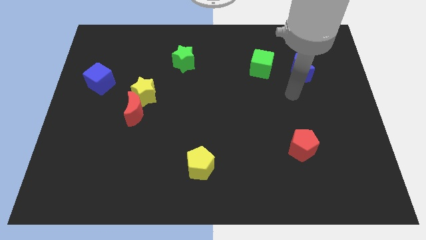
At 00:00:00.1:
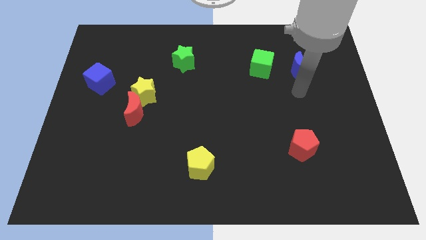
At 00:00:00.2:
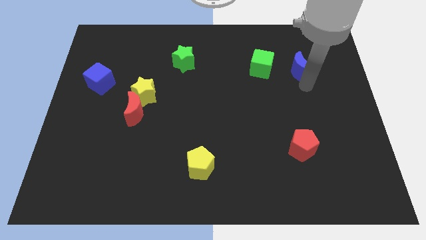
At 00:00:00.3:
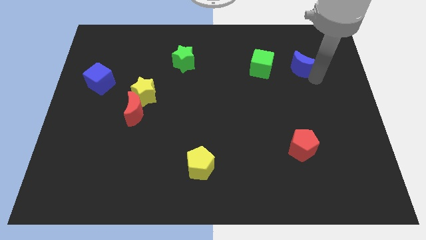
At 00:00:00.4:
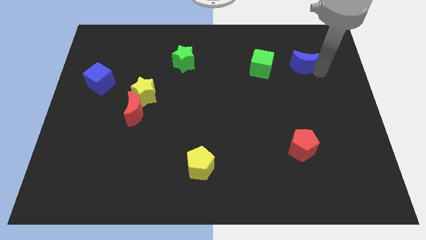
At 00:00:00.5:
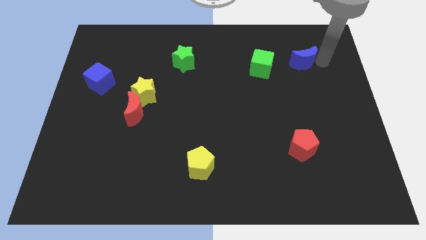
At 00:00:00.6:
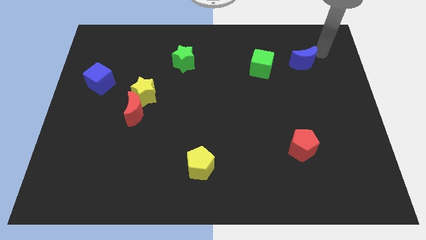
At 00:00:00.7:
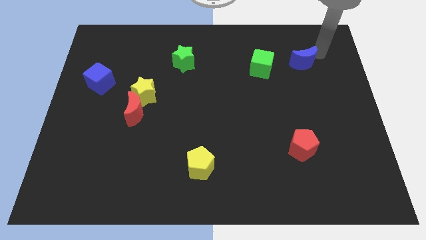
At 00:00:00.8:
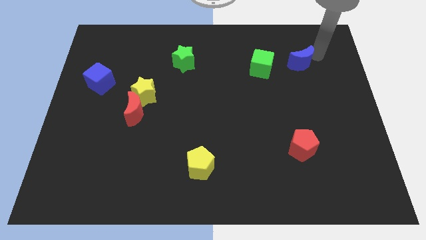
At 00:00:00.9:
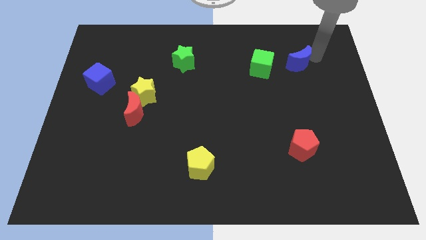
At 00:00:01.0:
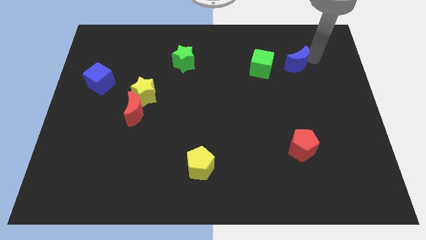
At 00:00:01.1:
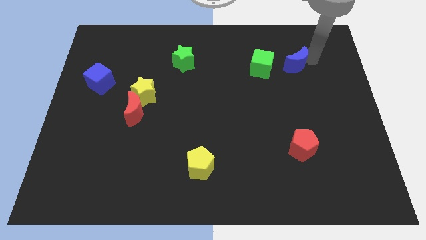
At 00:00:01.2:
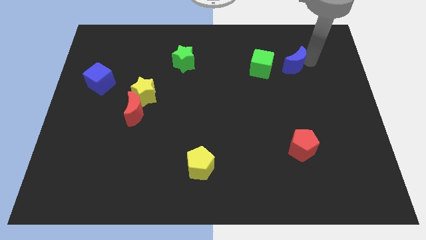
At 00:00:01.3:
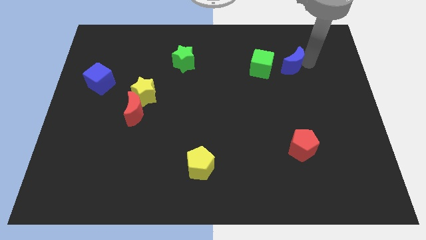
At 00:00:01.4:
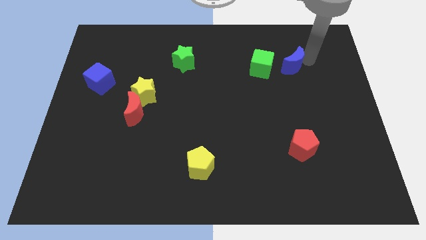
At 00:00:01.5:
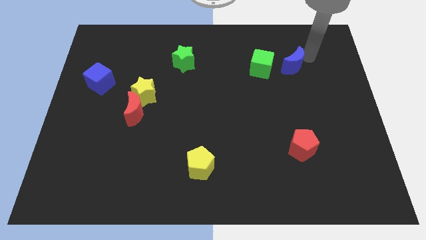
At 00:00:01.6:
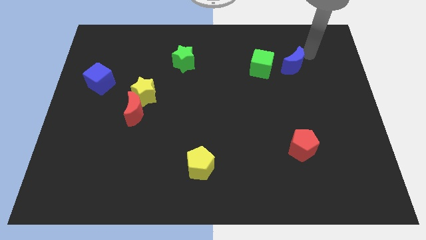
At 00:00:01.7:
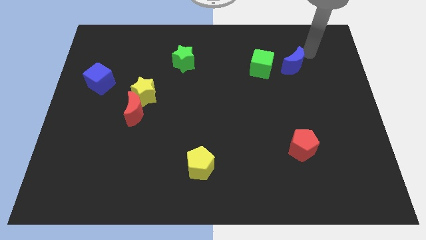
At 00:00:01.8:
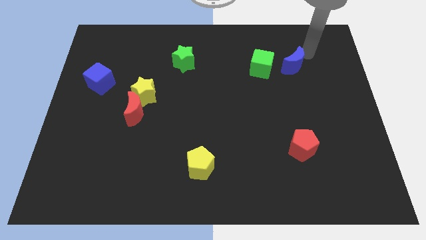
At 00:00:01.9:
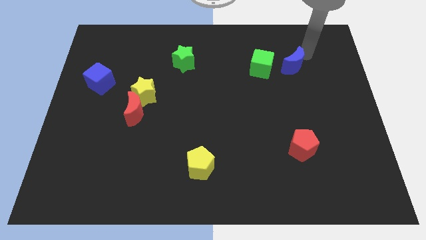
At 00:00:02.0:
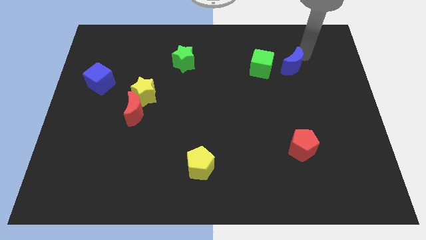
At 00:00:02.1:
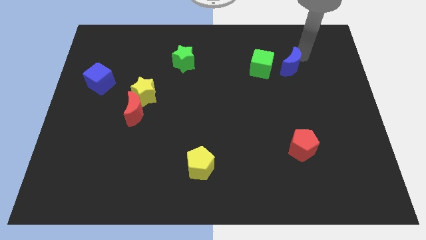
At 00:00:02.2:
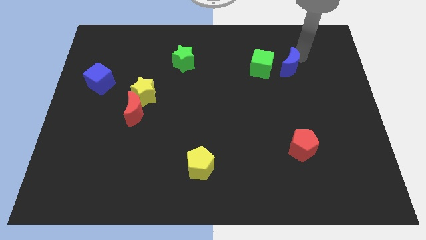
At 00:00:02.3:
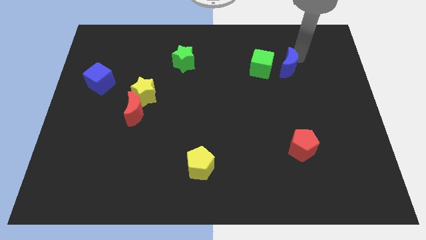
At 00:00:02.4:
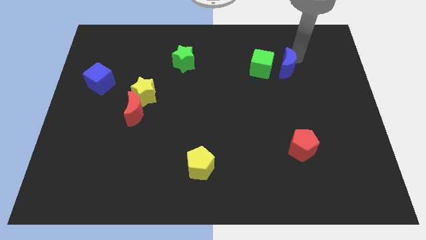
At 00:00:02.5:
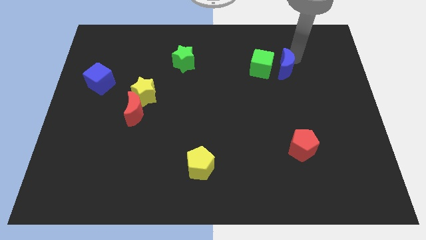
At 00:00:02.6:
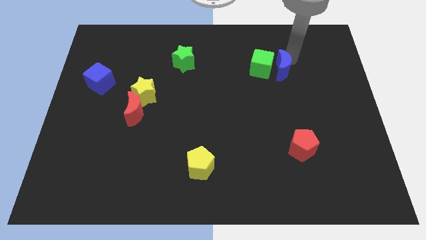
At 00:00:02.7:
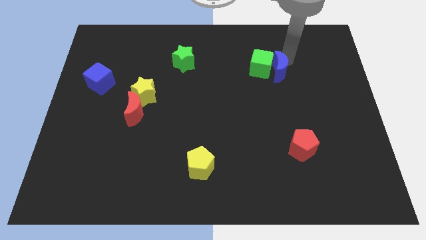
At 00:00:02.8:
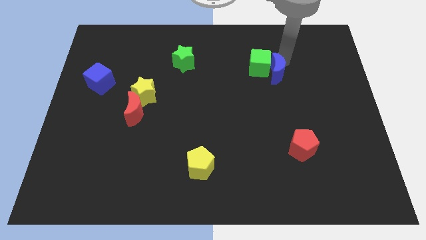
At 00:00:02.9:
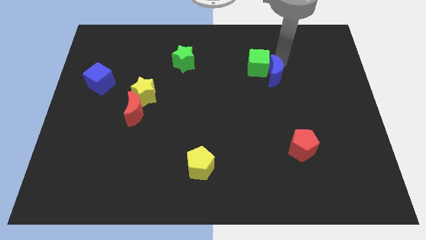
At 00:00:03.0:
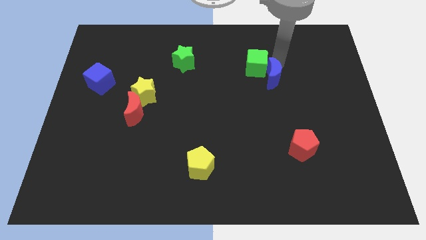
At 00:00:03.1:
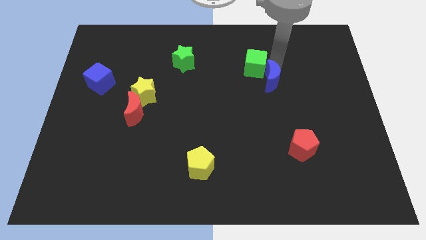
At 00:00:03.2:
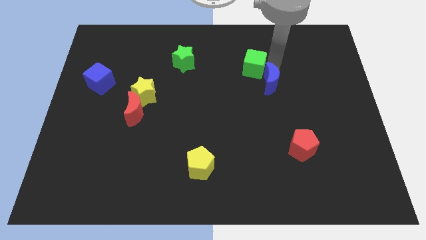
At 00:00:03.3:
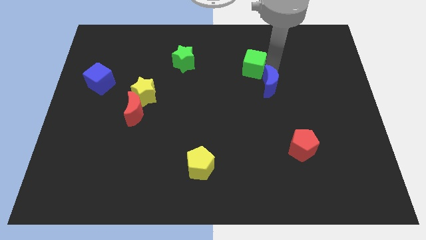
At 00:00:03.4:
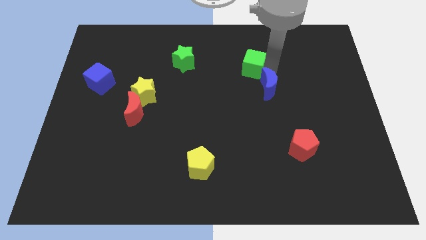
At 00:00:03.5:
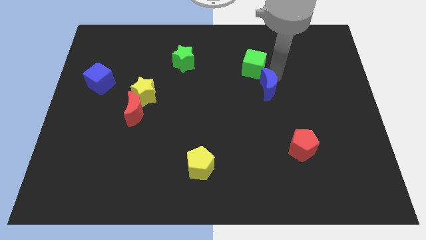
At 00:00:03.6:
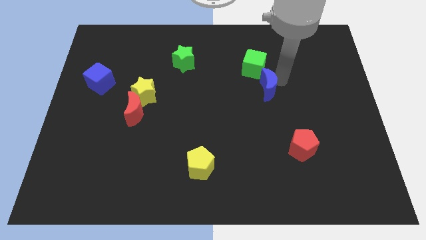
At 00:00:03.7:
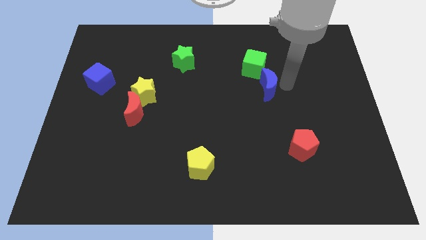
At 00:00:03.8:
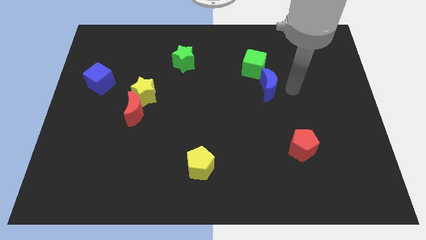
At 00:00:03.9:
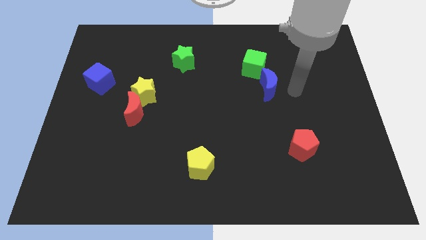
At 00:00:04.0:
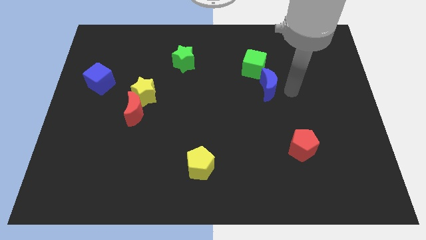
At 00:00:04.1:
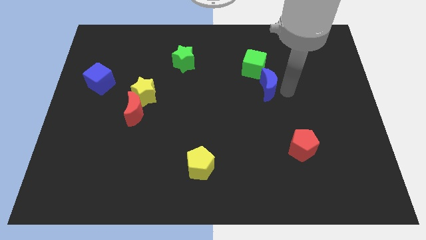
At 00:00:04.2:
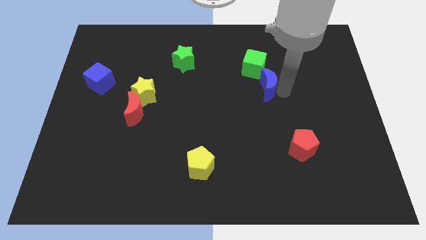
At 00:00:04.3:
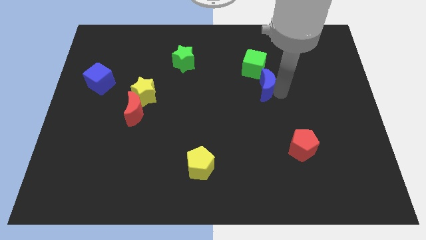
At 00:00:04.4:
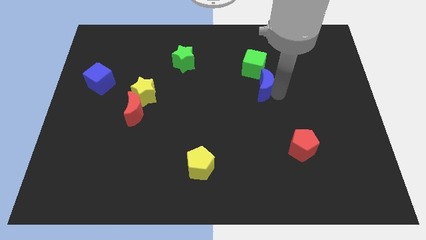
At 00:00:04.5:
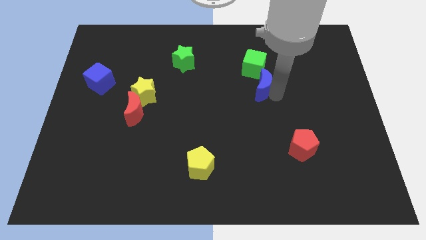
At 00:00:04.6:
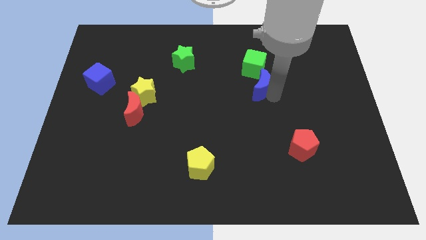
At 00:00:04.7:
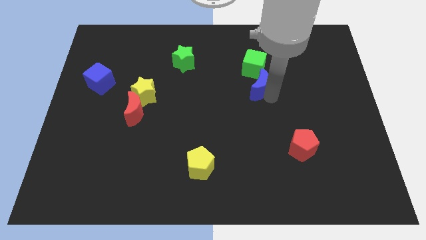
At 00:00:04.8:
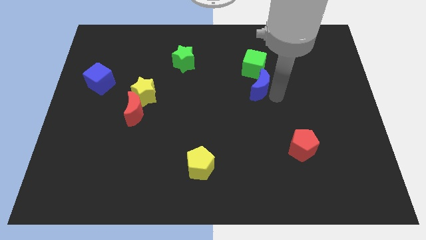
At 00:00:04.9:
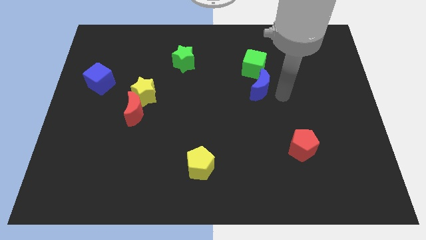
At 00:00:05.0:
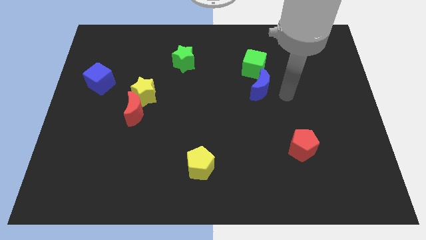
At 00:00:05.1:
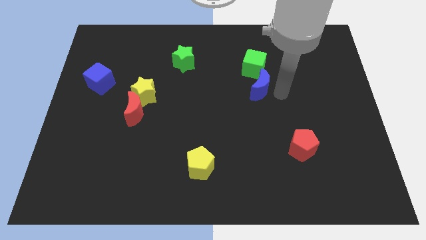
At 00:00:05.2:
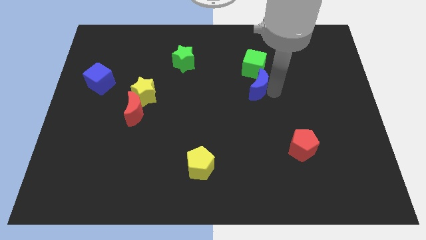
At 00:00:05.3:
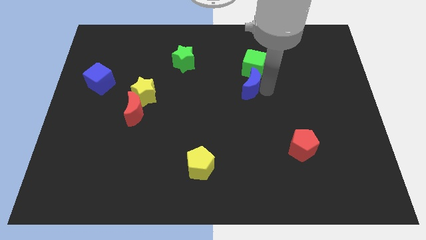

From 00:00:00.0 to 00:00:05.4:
move the blue moon diagonally down and to the left of the green cube

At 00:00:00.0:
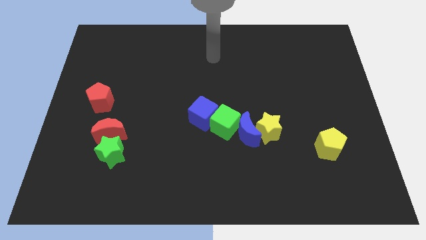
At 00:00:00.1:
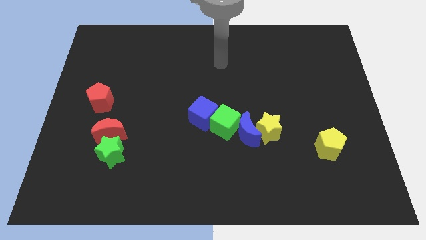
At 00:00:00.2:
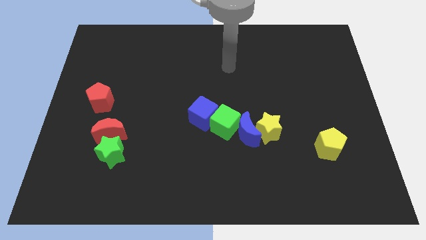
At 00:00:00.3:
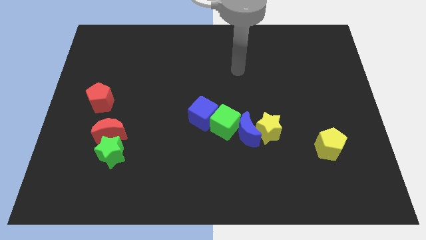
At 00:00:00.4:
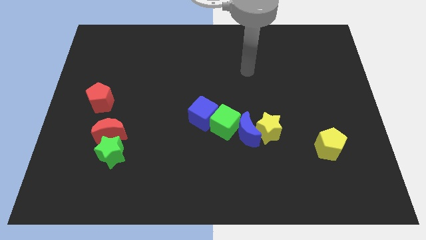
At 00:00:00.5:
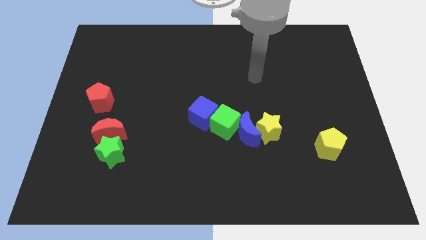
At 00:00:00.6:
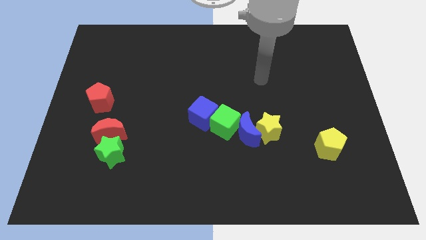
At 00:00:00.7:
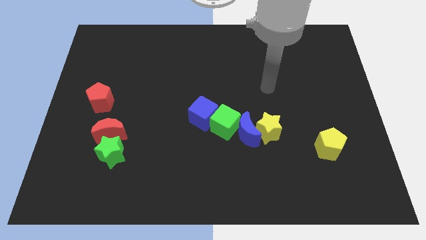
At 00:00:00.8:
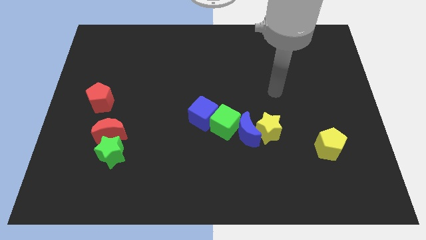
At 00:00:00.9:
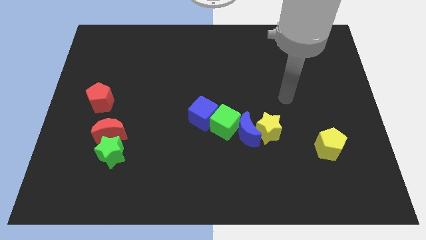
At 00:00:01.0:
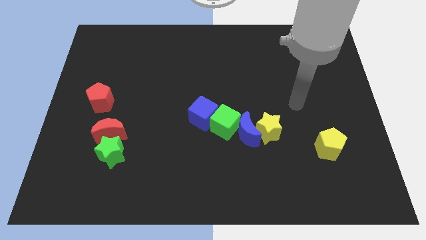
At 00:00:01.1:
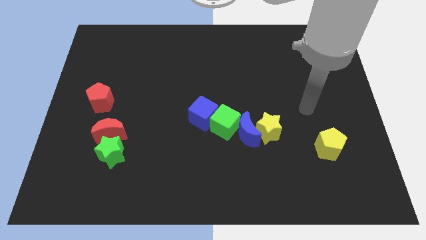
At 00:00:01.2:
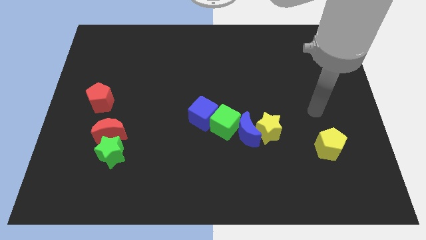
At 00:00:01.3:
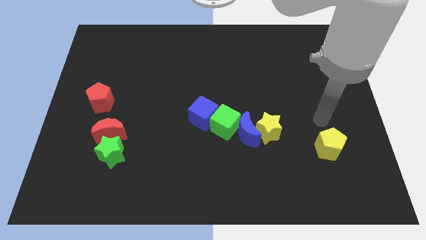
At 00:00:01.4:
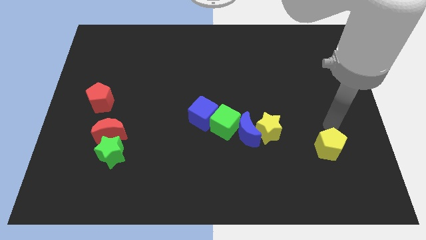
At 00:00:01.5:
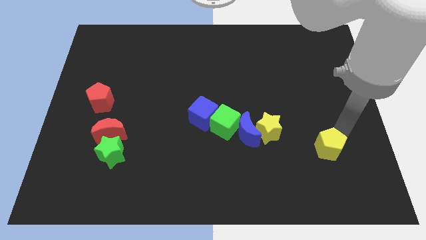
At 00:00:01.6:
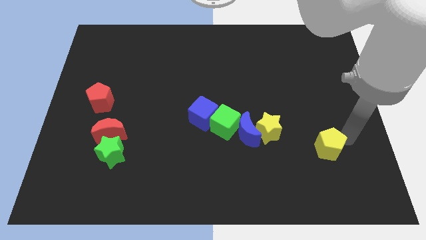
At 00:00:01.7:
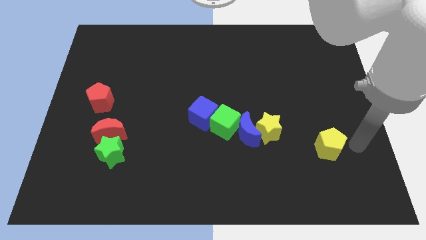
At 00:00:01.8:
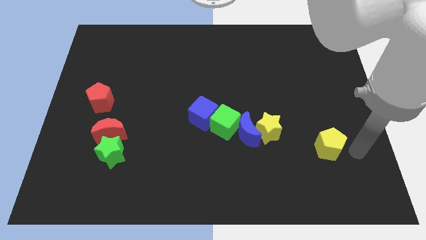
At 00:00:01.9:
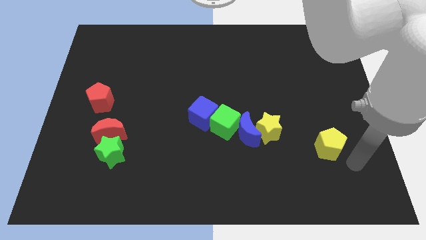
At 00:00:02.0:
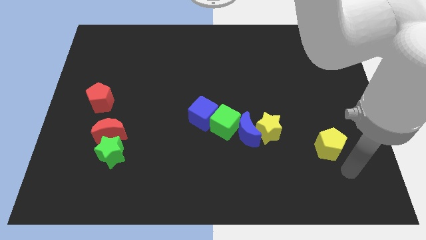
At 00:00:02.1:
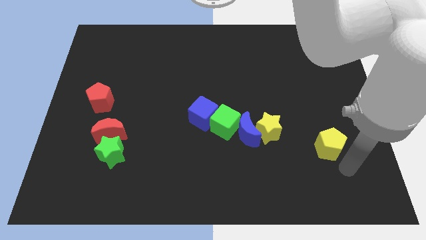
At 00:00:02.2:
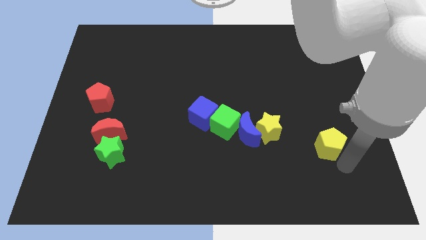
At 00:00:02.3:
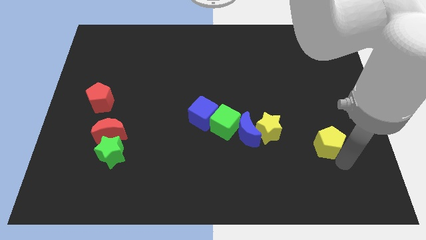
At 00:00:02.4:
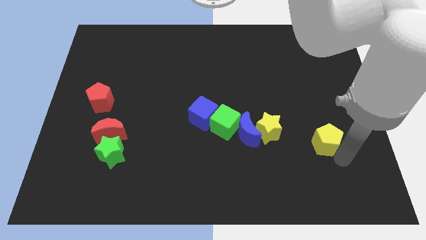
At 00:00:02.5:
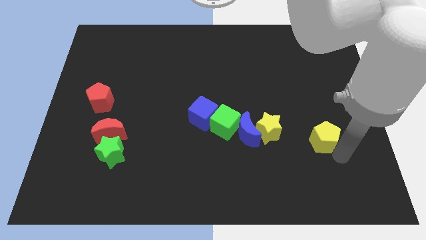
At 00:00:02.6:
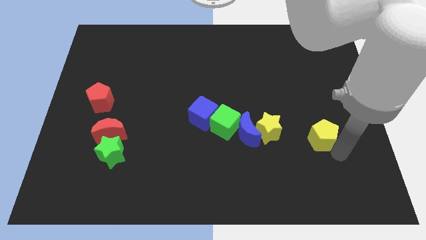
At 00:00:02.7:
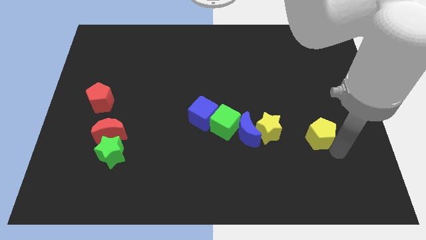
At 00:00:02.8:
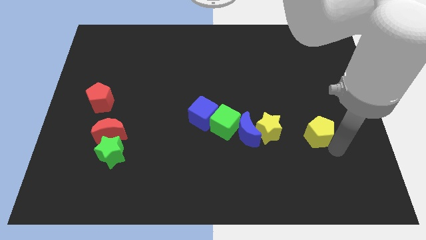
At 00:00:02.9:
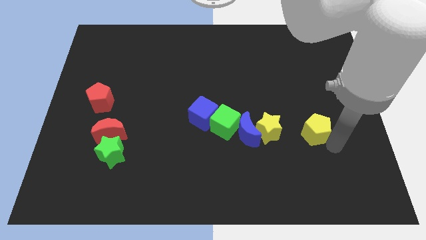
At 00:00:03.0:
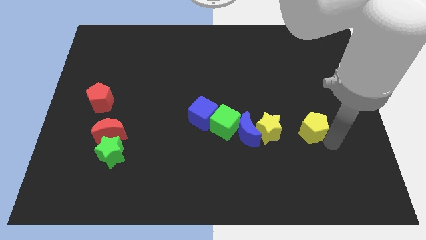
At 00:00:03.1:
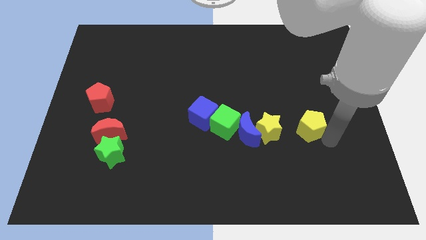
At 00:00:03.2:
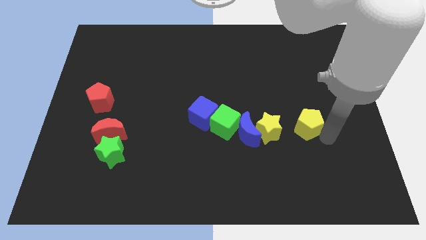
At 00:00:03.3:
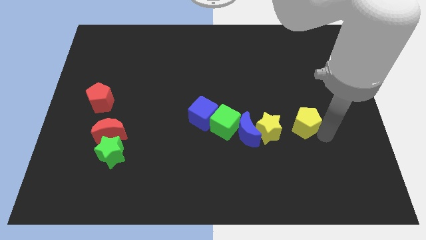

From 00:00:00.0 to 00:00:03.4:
put the yellow pentagon to the top right of the yellow star
